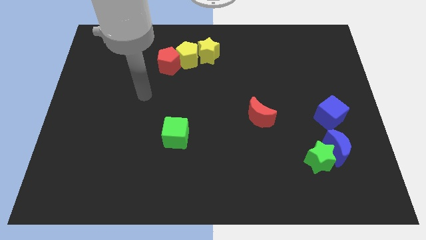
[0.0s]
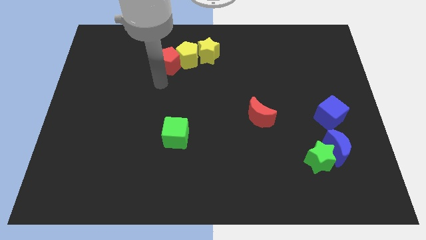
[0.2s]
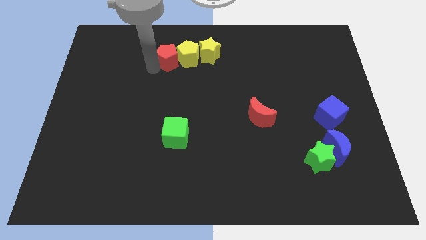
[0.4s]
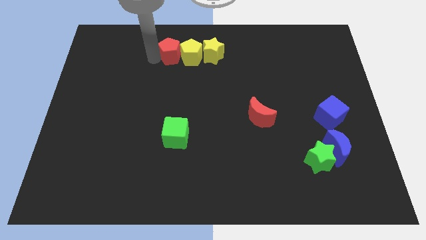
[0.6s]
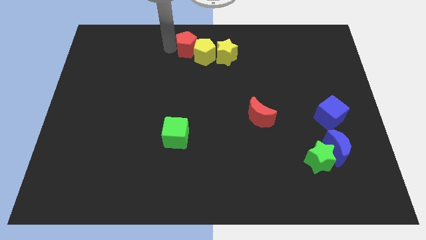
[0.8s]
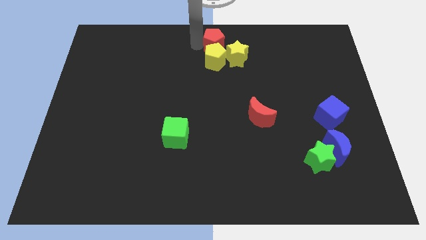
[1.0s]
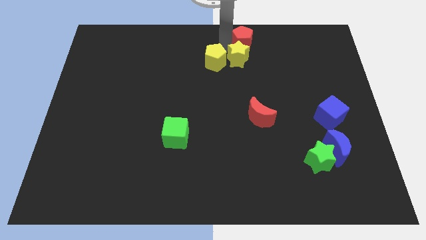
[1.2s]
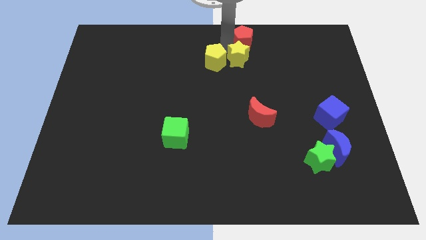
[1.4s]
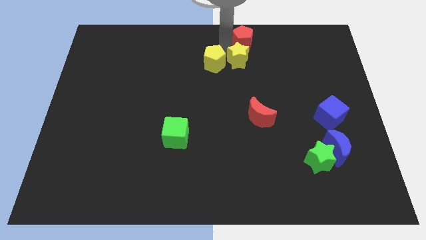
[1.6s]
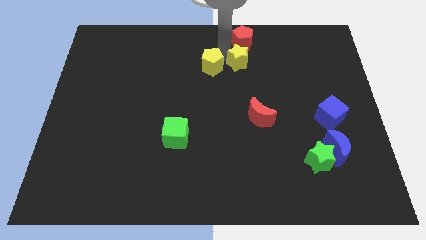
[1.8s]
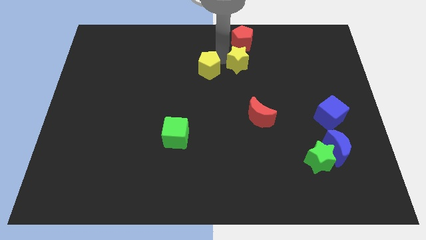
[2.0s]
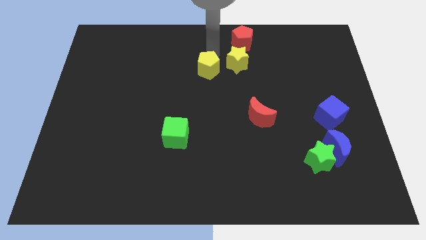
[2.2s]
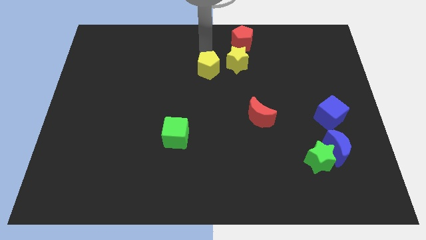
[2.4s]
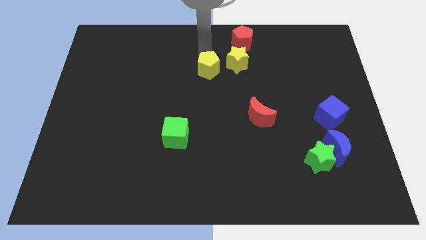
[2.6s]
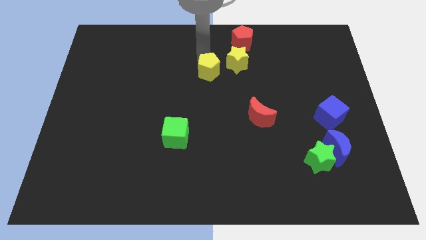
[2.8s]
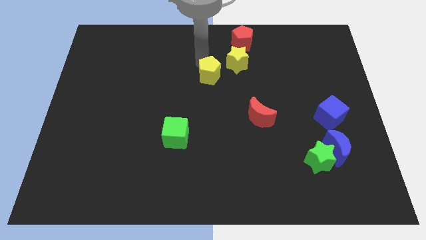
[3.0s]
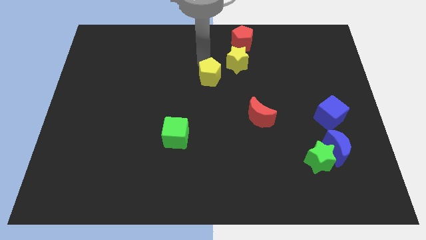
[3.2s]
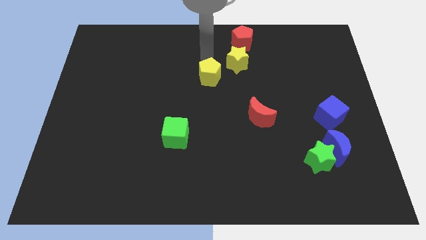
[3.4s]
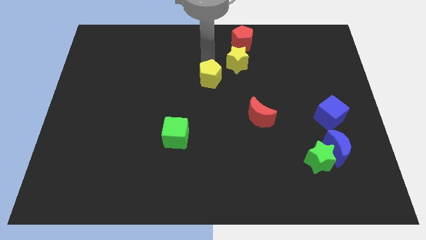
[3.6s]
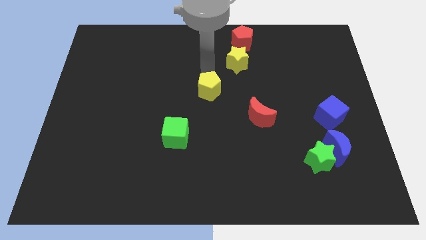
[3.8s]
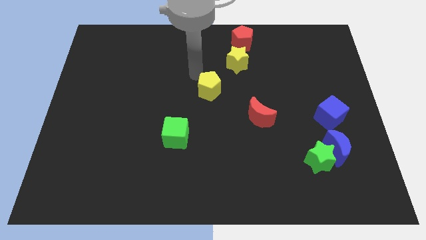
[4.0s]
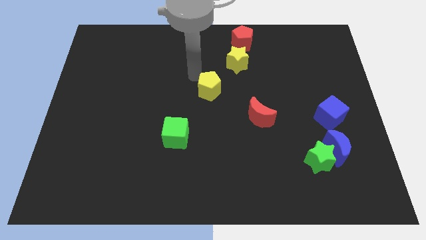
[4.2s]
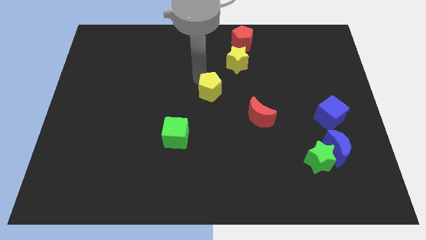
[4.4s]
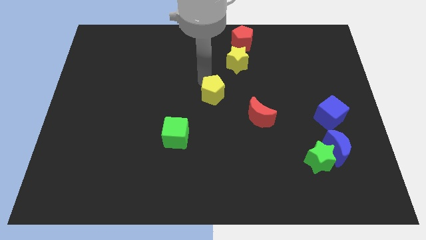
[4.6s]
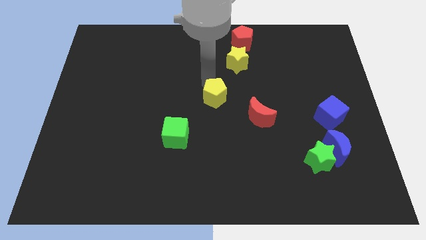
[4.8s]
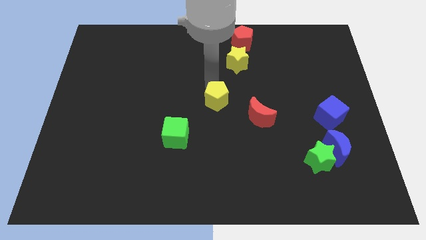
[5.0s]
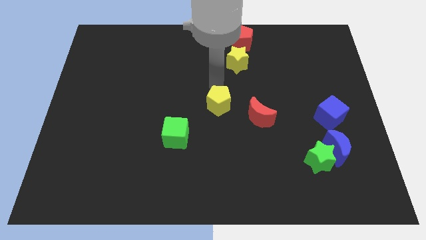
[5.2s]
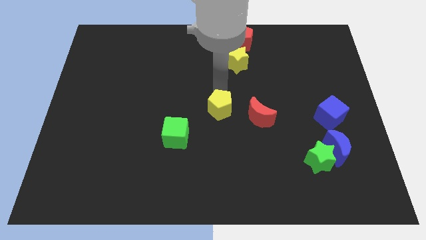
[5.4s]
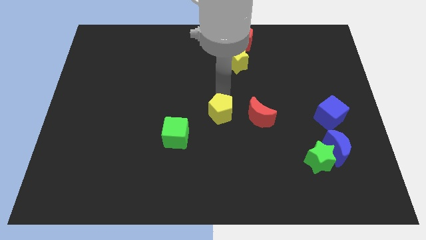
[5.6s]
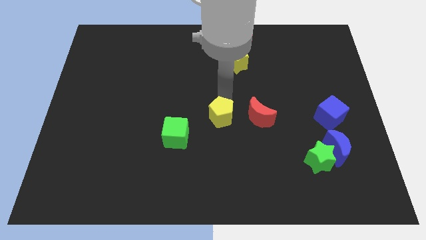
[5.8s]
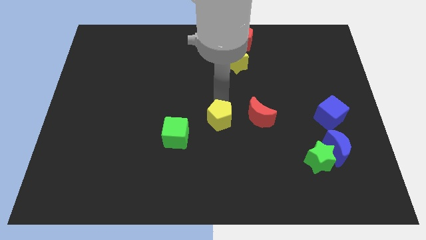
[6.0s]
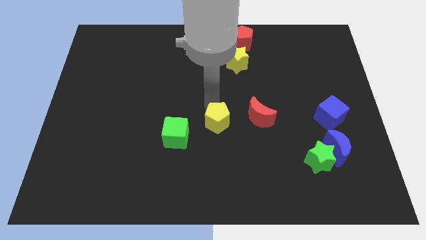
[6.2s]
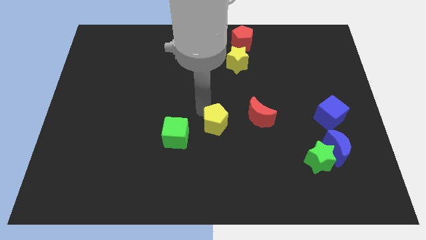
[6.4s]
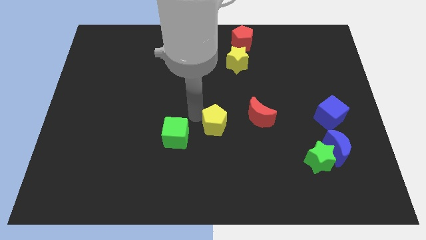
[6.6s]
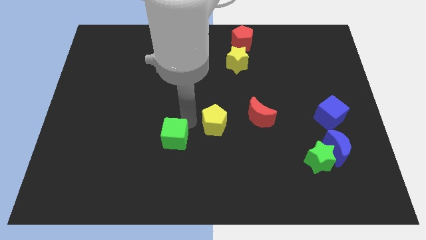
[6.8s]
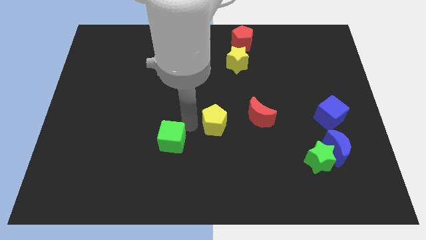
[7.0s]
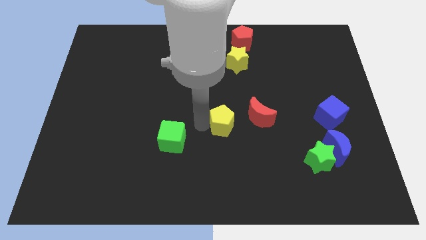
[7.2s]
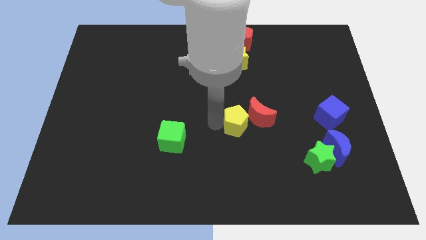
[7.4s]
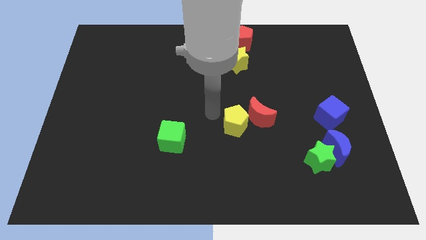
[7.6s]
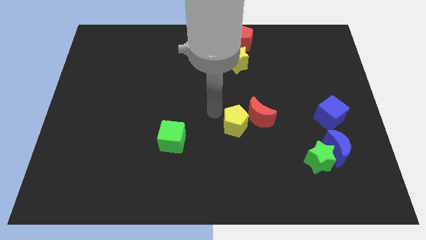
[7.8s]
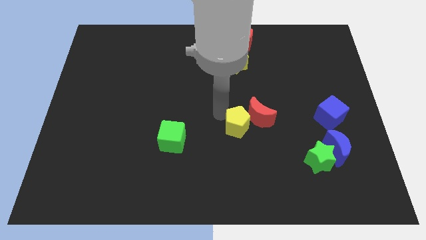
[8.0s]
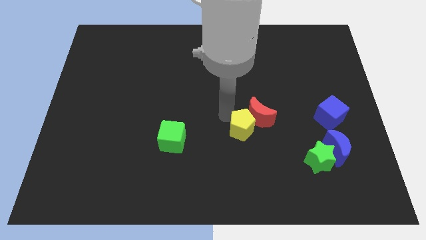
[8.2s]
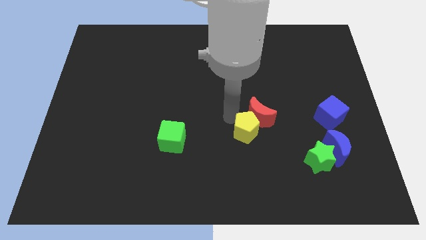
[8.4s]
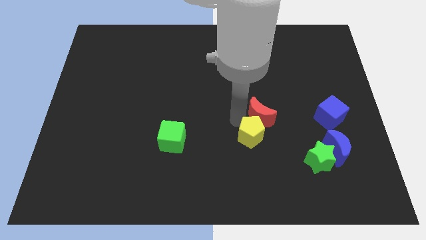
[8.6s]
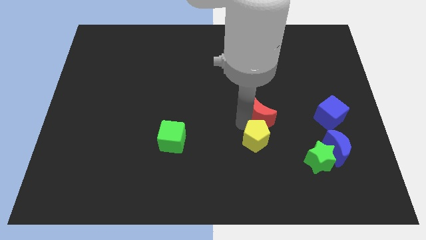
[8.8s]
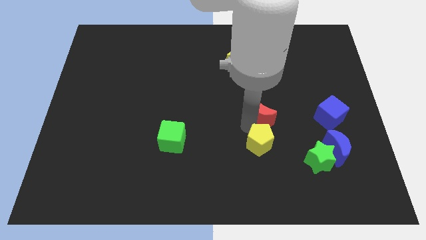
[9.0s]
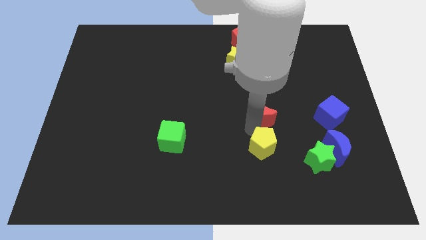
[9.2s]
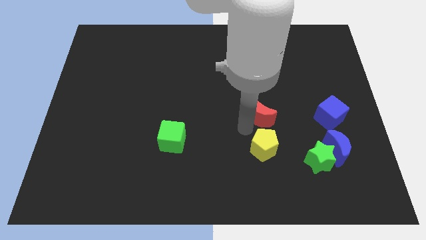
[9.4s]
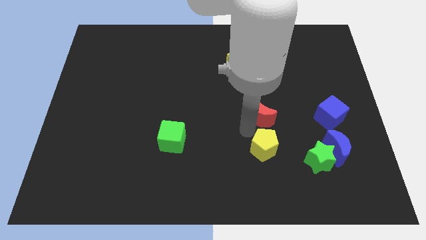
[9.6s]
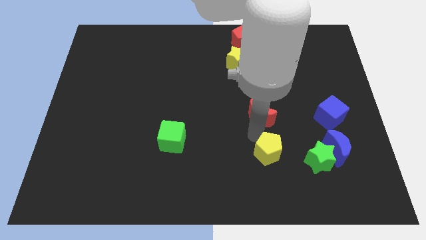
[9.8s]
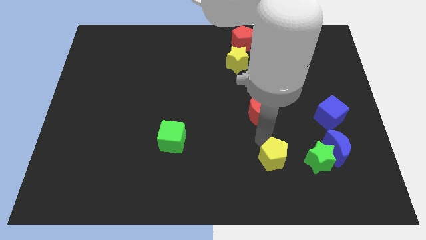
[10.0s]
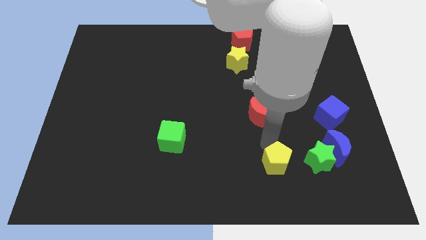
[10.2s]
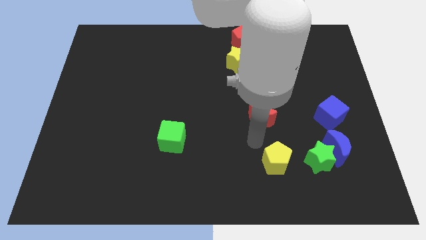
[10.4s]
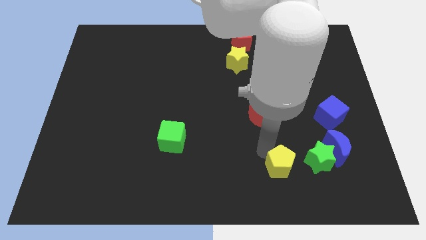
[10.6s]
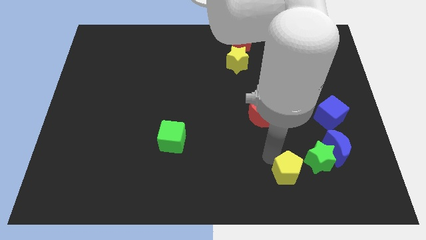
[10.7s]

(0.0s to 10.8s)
push the yellow pentagon to the bottom left of the green star

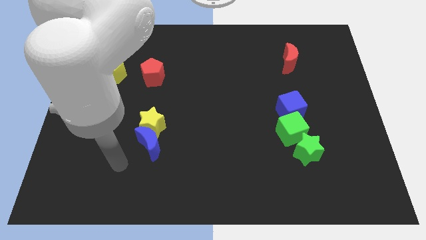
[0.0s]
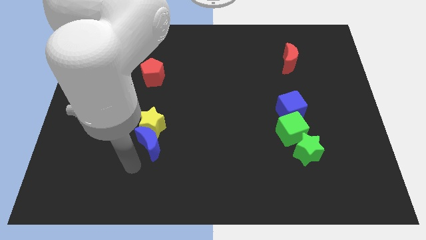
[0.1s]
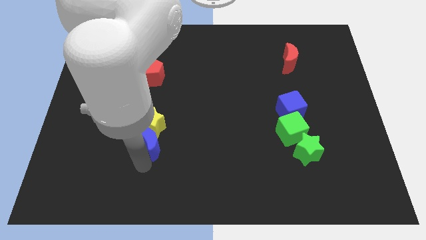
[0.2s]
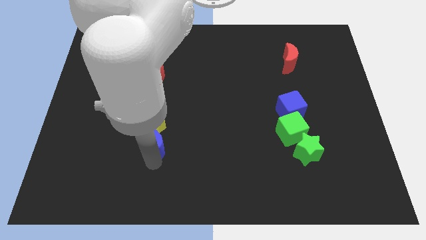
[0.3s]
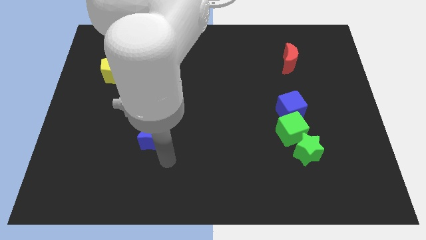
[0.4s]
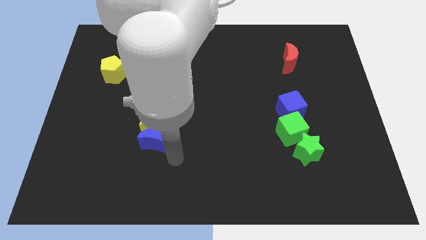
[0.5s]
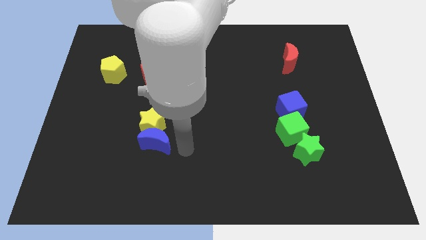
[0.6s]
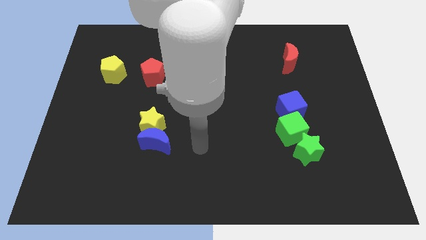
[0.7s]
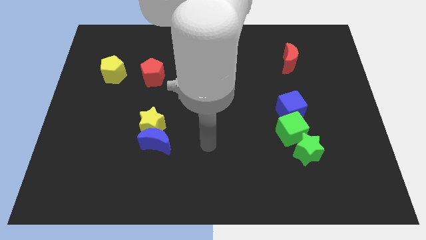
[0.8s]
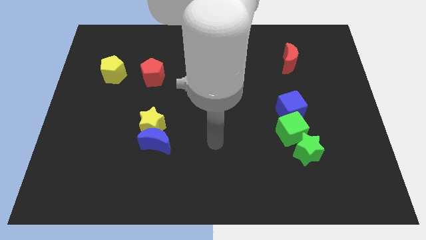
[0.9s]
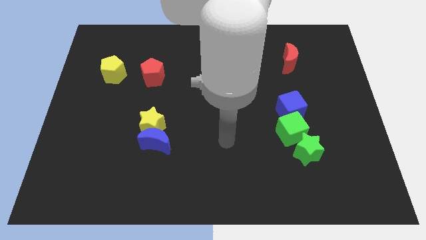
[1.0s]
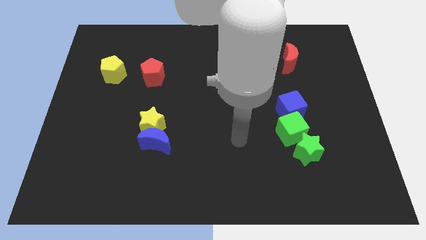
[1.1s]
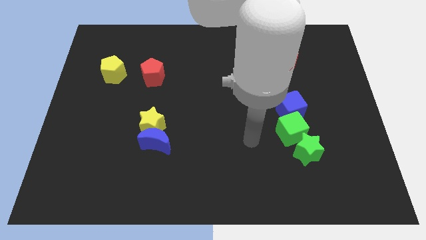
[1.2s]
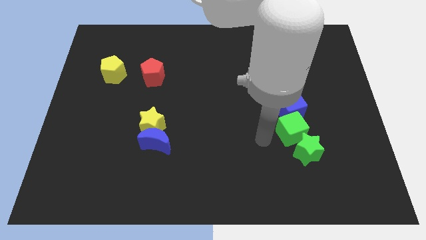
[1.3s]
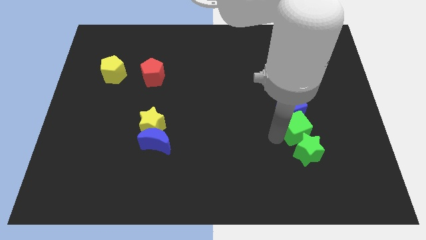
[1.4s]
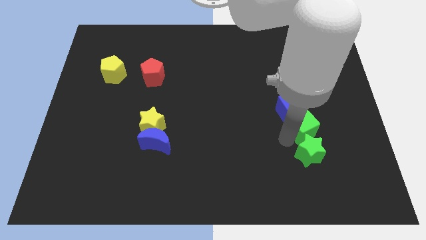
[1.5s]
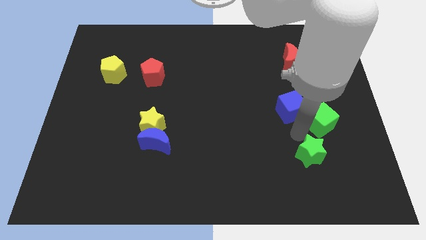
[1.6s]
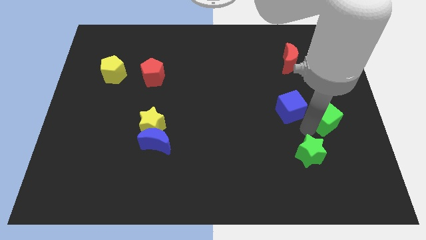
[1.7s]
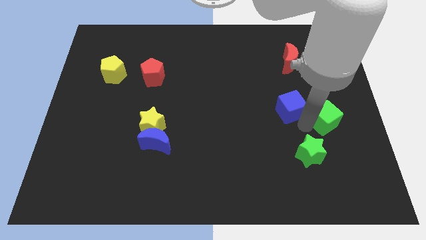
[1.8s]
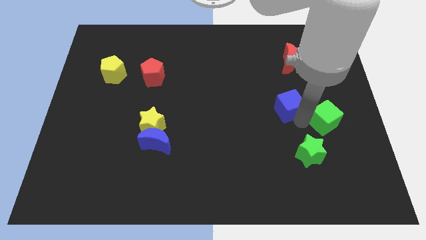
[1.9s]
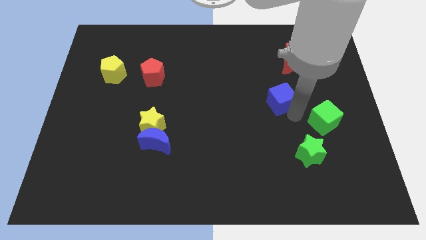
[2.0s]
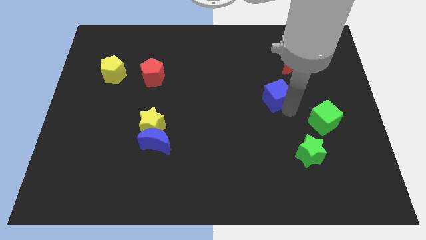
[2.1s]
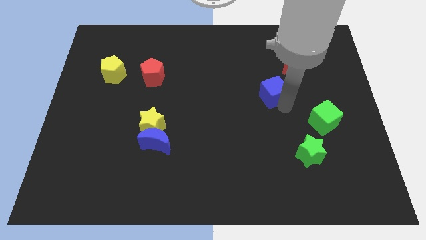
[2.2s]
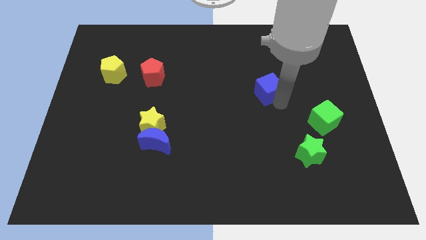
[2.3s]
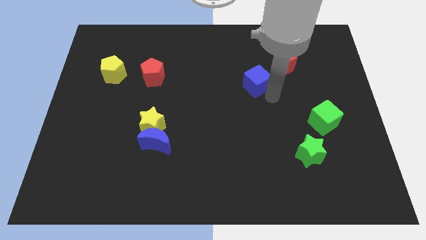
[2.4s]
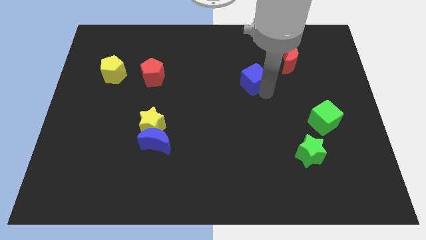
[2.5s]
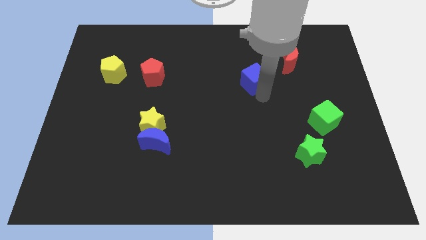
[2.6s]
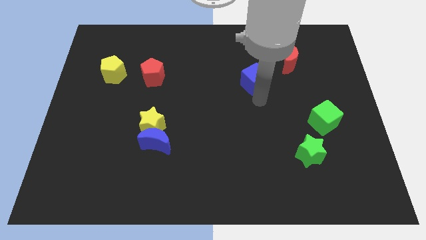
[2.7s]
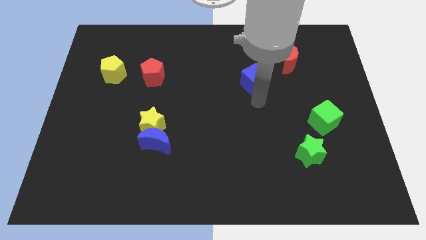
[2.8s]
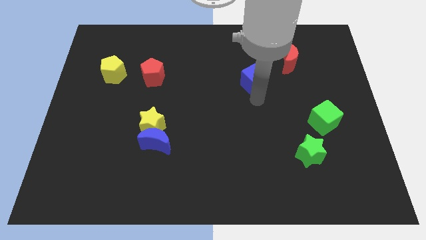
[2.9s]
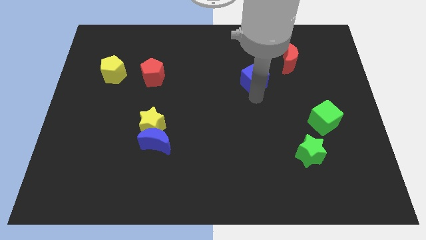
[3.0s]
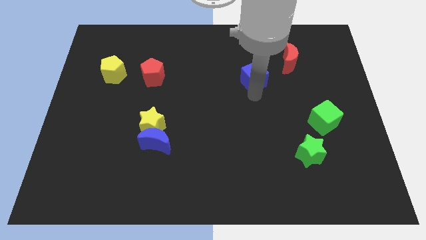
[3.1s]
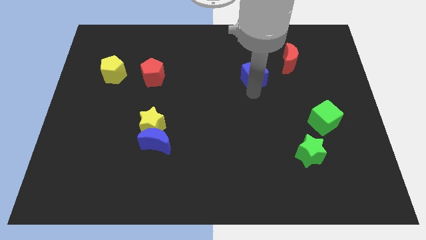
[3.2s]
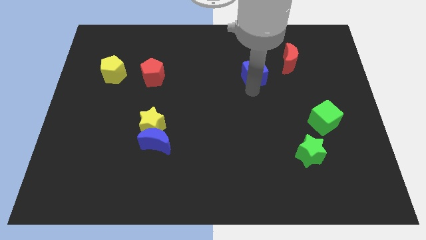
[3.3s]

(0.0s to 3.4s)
move the blue cube left of the red moon
